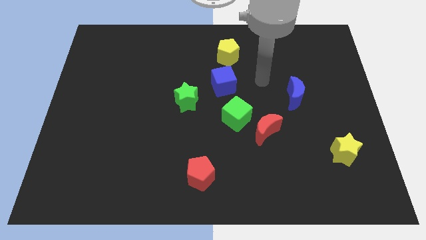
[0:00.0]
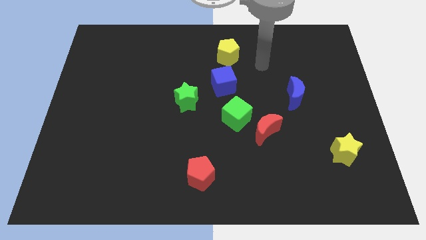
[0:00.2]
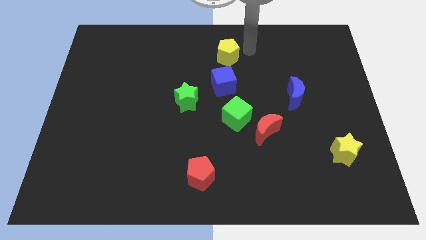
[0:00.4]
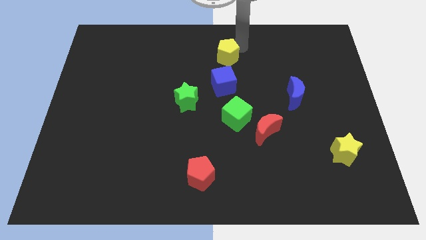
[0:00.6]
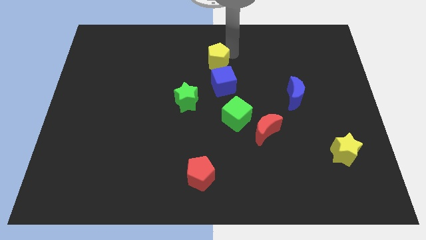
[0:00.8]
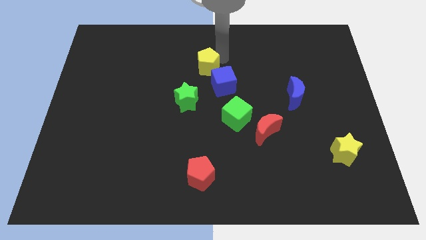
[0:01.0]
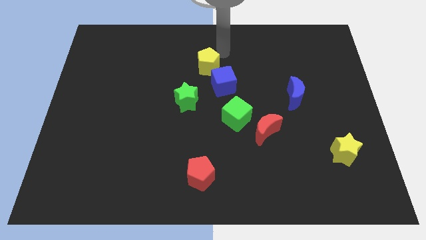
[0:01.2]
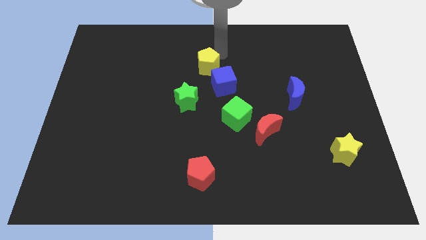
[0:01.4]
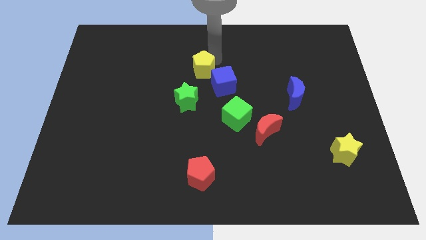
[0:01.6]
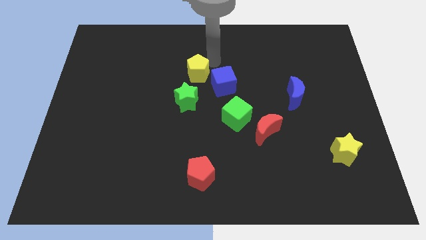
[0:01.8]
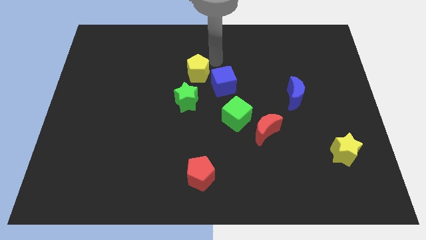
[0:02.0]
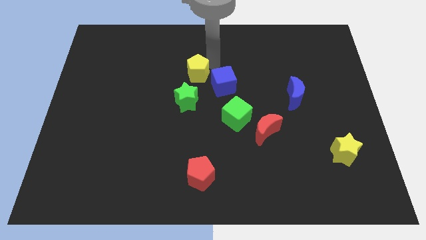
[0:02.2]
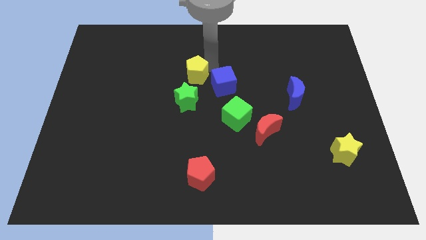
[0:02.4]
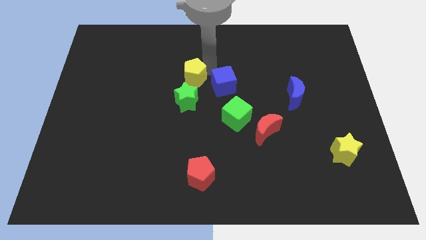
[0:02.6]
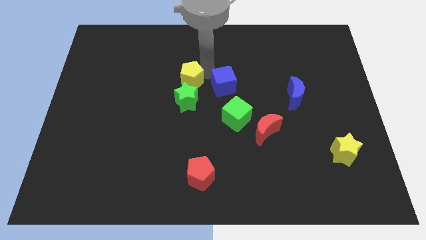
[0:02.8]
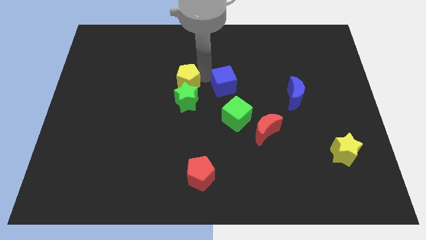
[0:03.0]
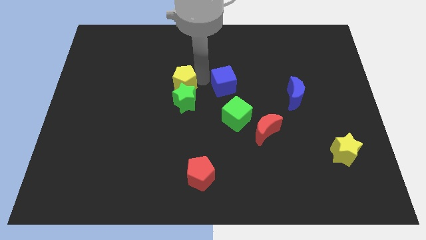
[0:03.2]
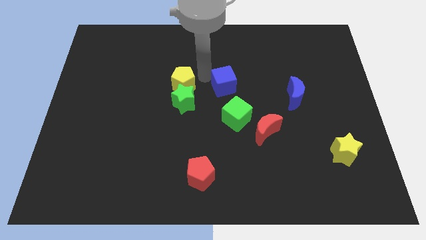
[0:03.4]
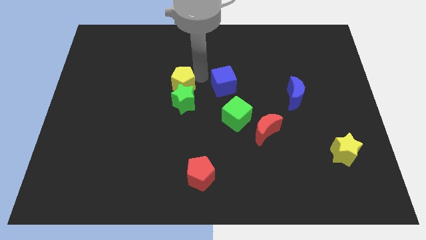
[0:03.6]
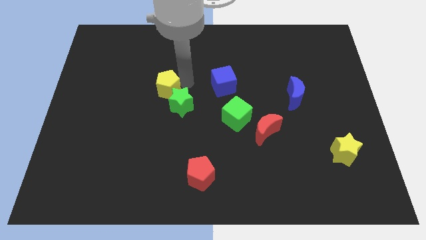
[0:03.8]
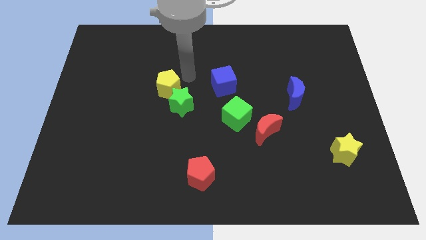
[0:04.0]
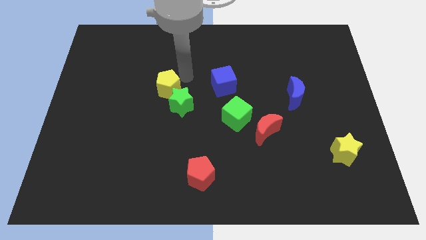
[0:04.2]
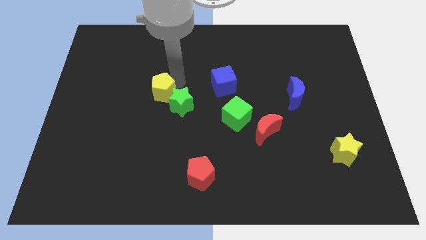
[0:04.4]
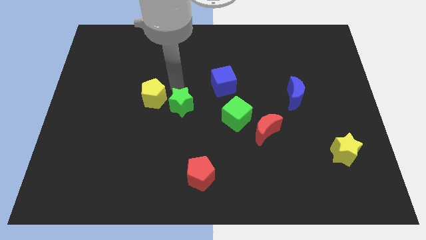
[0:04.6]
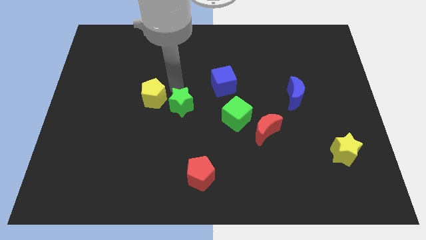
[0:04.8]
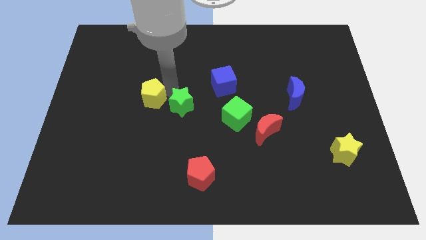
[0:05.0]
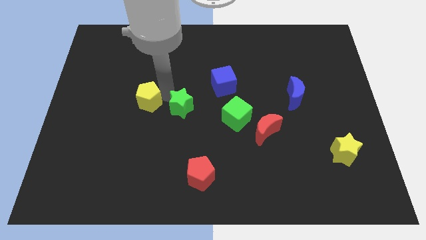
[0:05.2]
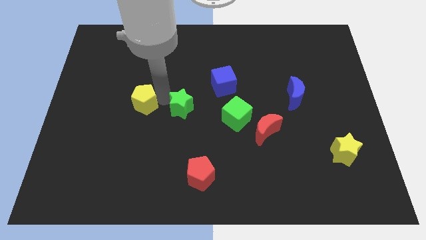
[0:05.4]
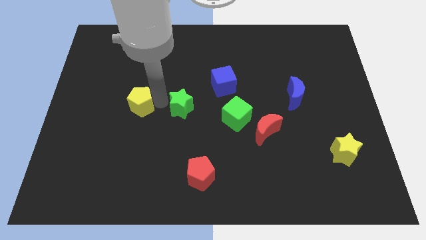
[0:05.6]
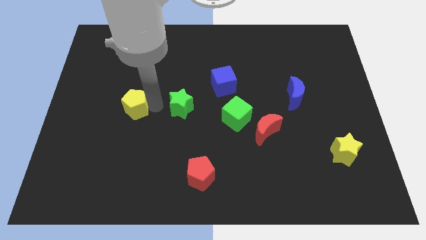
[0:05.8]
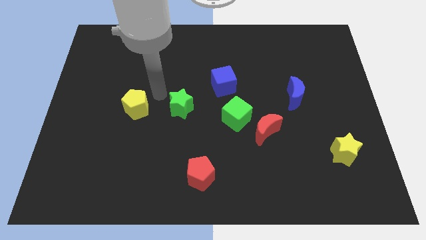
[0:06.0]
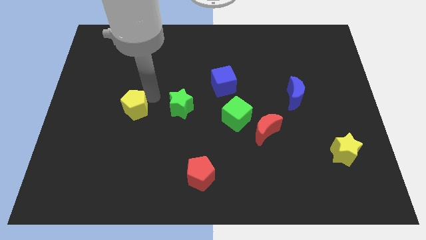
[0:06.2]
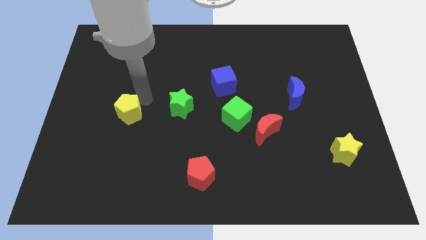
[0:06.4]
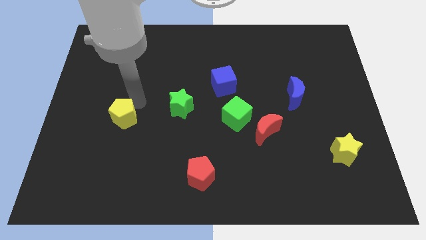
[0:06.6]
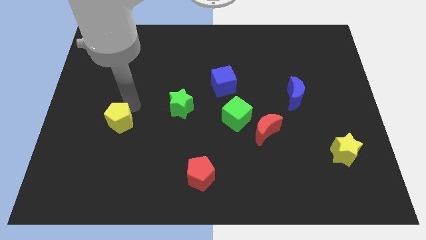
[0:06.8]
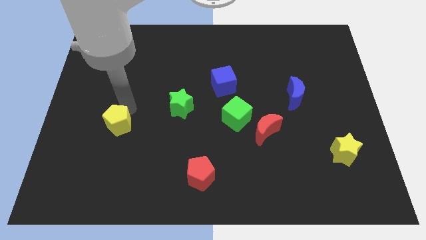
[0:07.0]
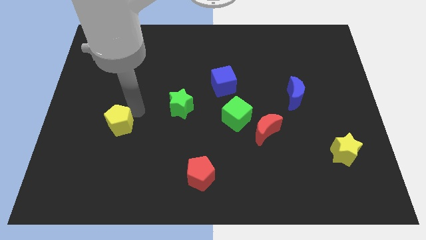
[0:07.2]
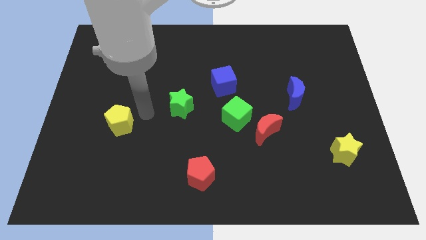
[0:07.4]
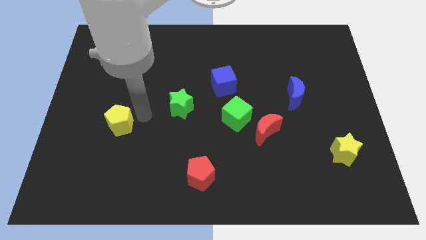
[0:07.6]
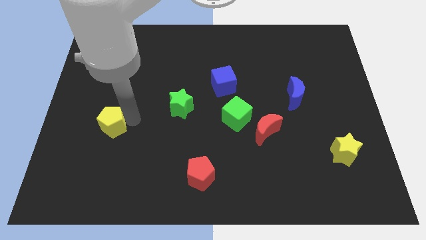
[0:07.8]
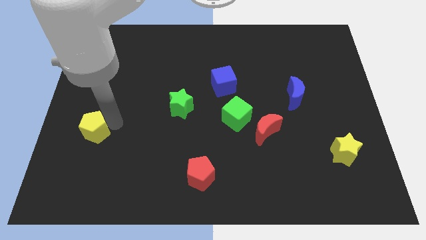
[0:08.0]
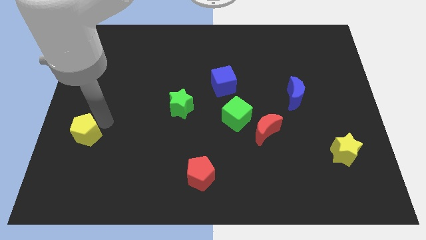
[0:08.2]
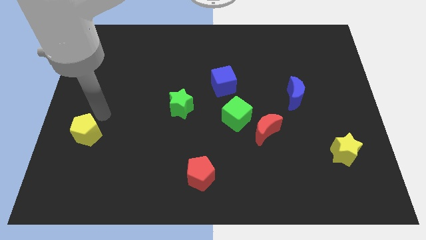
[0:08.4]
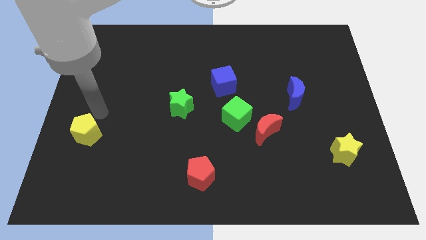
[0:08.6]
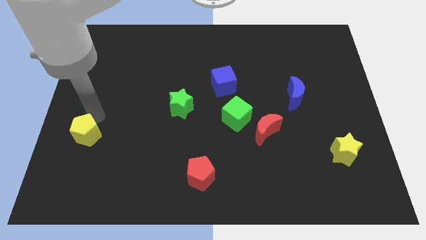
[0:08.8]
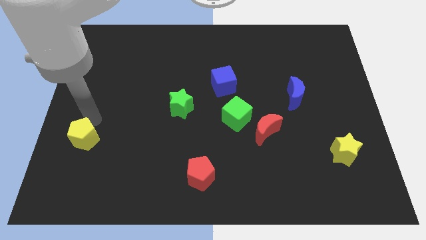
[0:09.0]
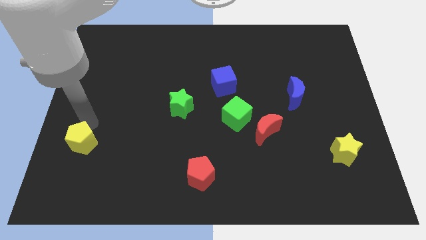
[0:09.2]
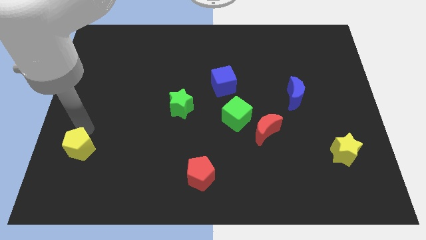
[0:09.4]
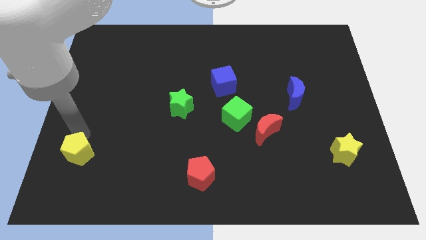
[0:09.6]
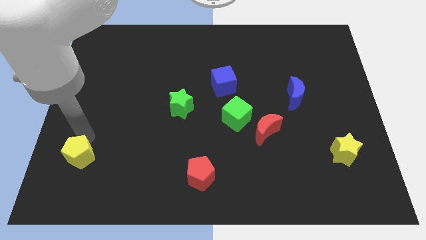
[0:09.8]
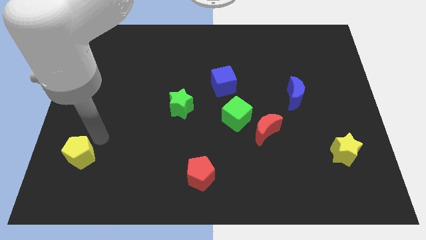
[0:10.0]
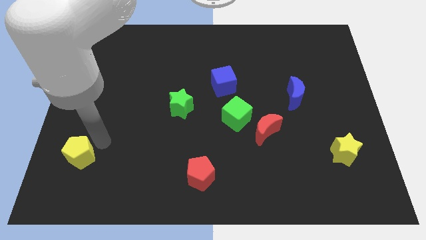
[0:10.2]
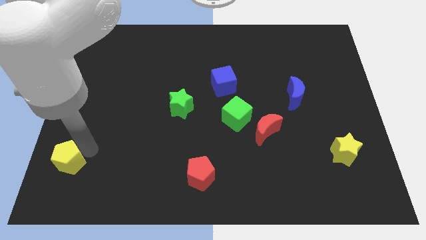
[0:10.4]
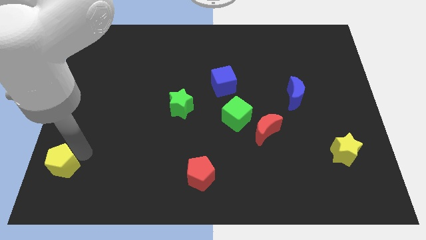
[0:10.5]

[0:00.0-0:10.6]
put the yellow pentagon to the bottom left corner

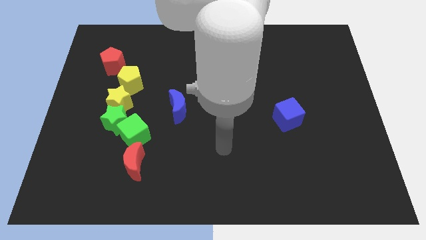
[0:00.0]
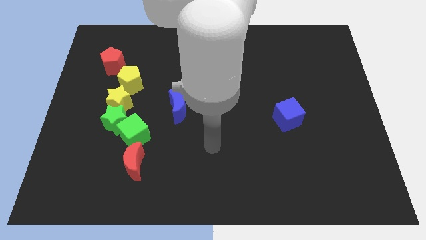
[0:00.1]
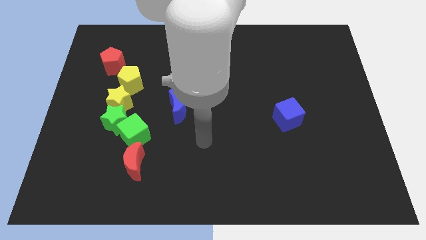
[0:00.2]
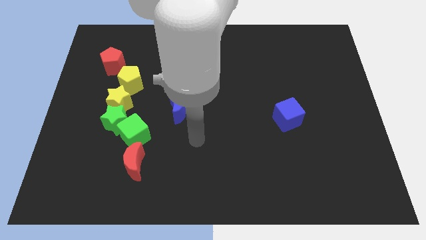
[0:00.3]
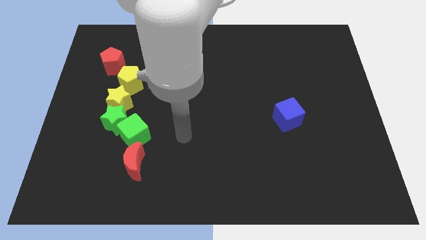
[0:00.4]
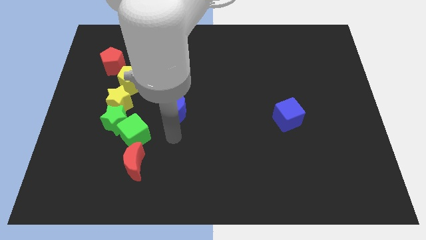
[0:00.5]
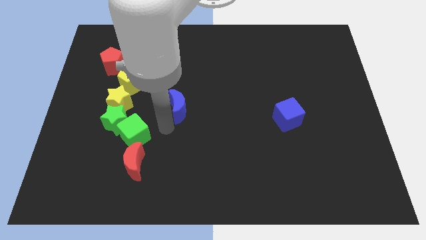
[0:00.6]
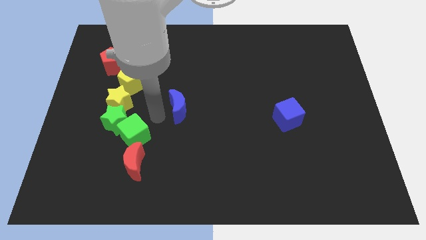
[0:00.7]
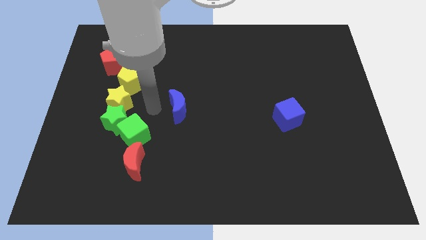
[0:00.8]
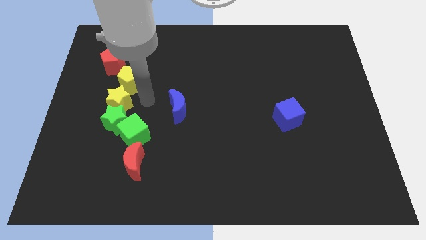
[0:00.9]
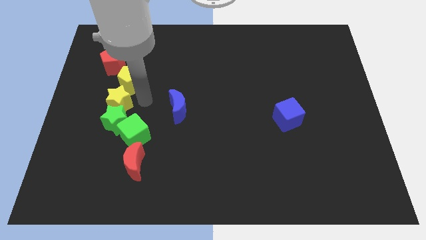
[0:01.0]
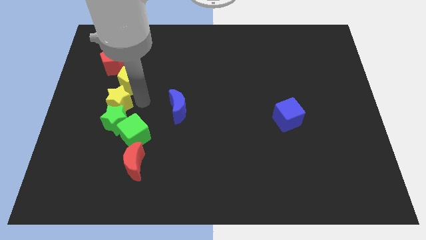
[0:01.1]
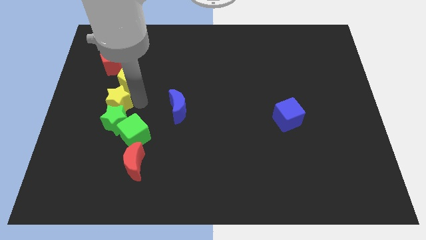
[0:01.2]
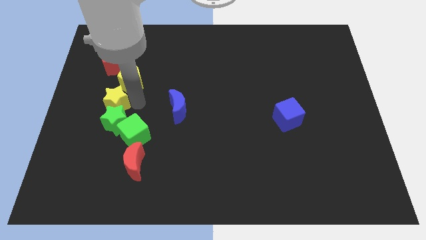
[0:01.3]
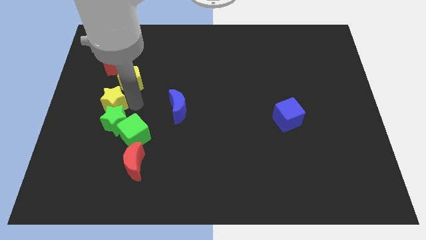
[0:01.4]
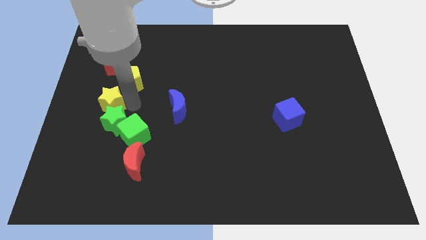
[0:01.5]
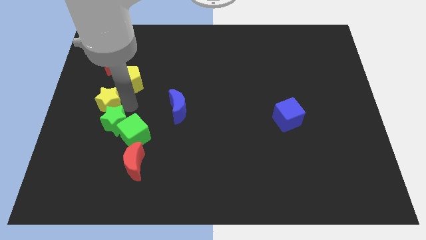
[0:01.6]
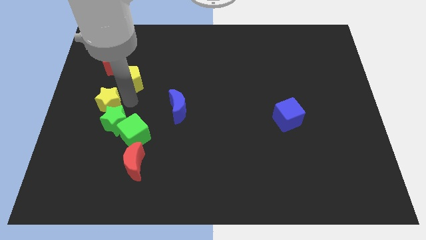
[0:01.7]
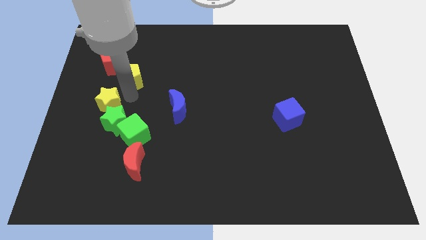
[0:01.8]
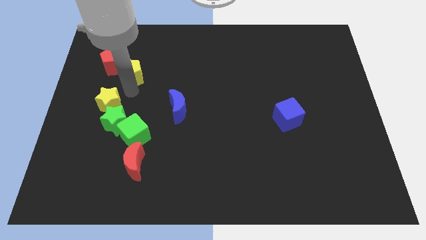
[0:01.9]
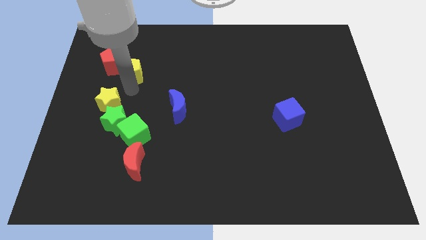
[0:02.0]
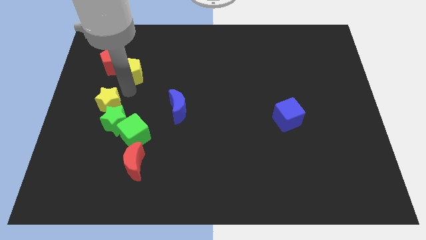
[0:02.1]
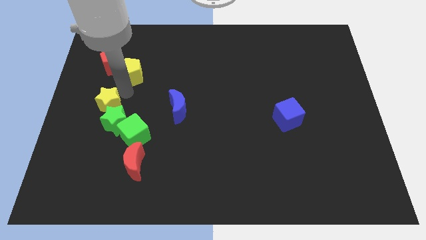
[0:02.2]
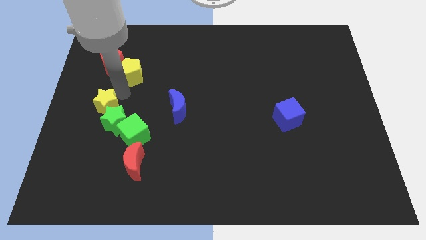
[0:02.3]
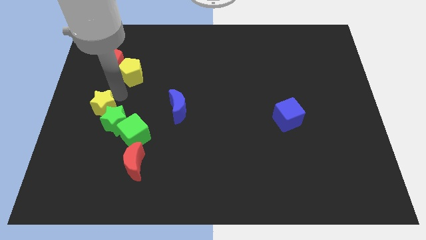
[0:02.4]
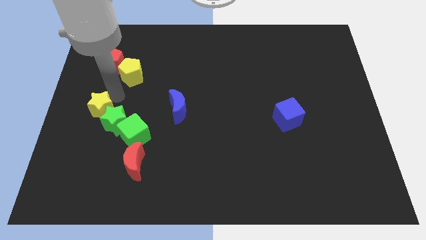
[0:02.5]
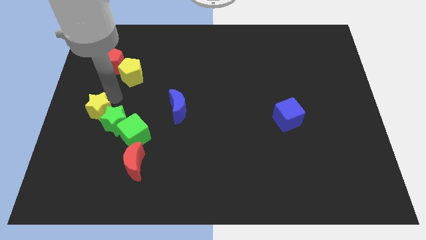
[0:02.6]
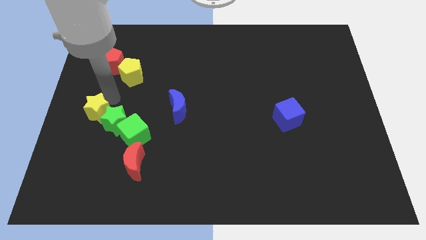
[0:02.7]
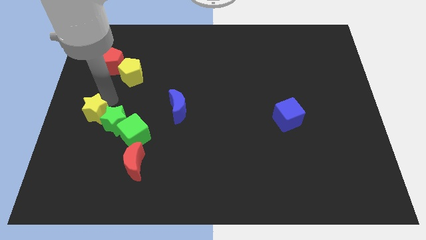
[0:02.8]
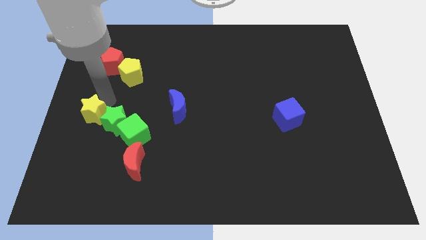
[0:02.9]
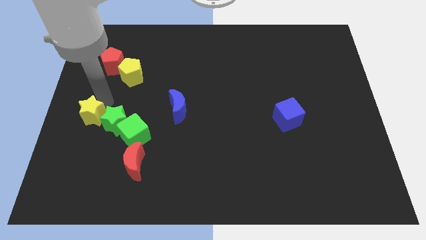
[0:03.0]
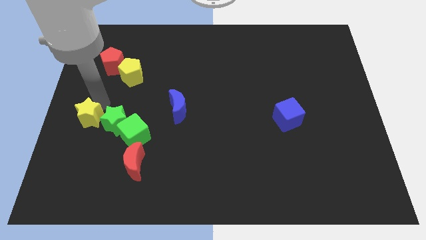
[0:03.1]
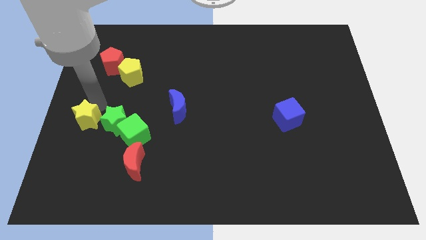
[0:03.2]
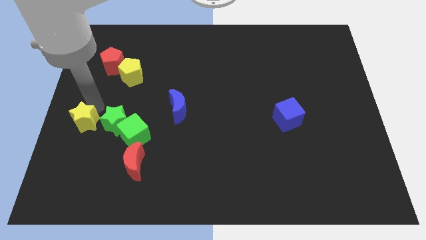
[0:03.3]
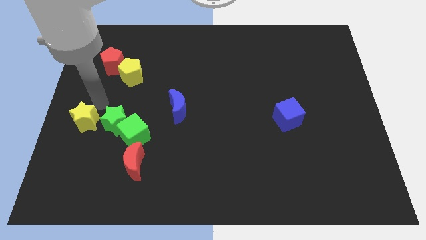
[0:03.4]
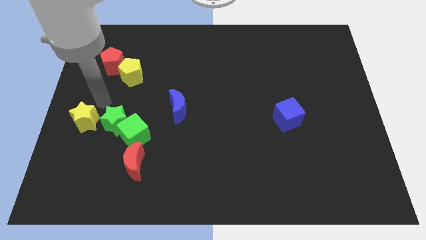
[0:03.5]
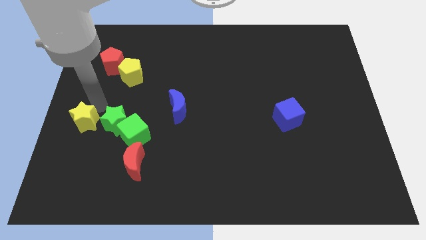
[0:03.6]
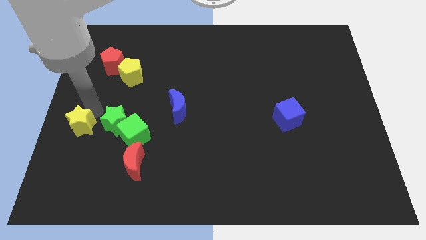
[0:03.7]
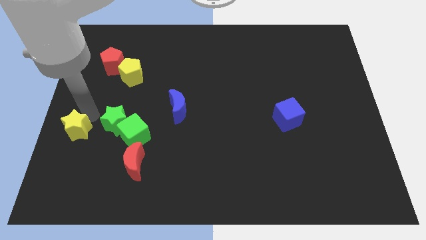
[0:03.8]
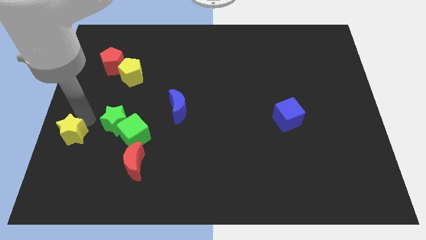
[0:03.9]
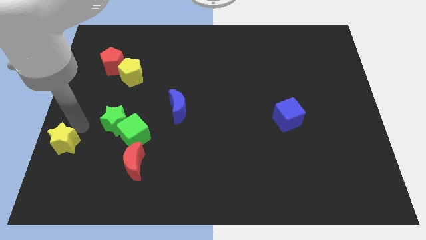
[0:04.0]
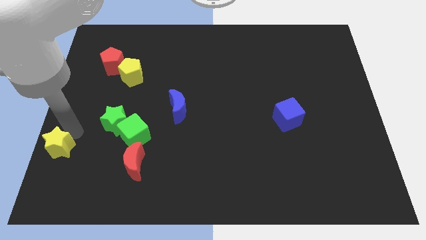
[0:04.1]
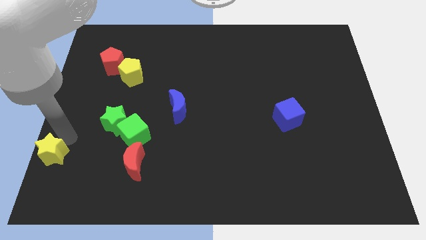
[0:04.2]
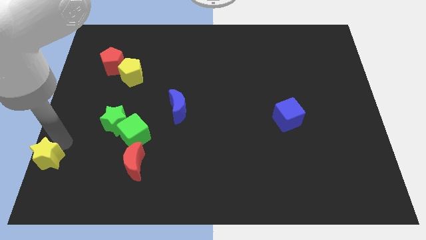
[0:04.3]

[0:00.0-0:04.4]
slide the yellow star to the lower left corner
